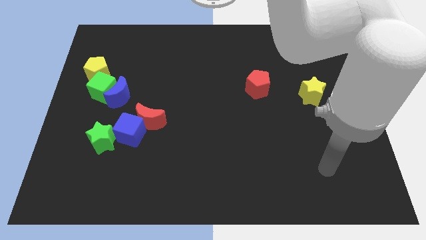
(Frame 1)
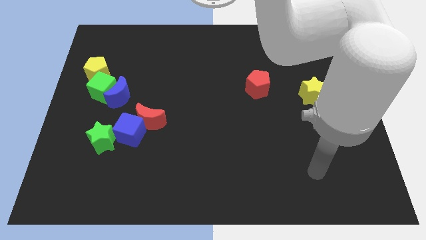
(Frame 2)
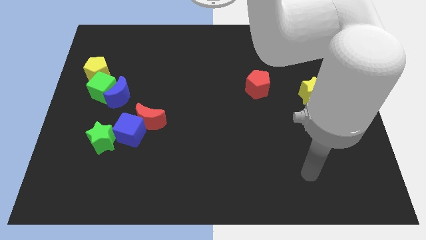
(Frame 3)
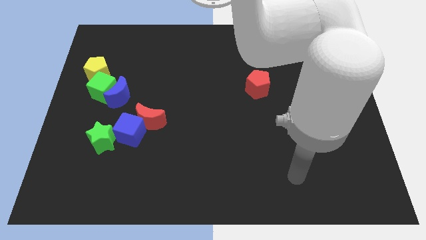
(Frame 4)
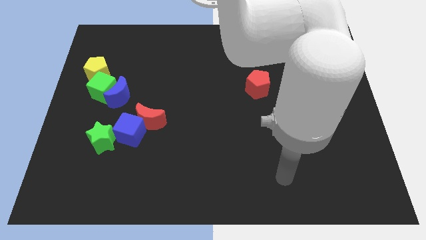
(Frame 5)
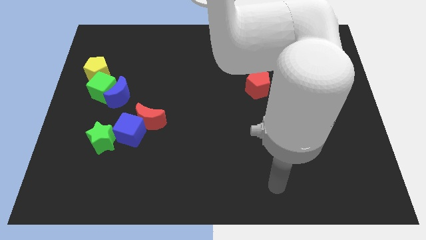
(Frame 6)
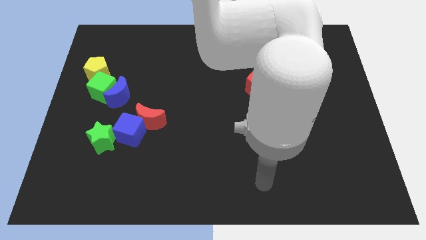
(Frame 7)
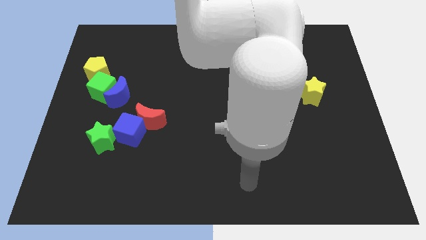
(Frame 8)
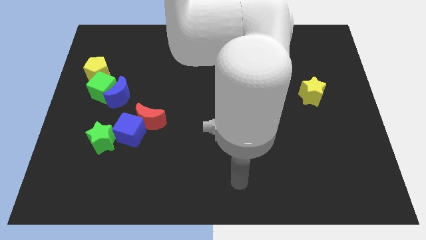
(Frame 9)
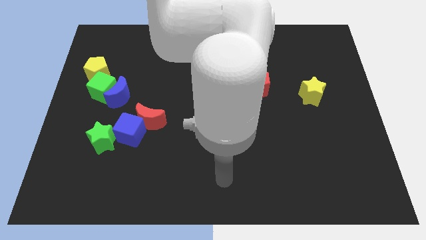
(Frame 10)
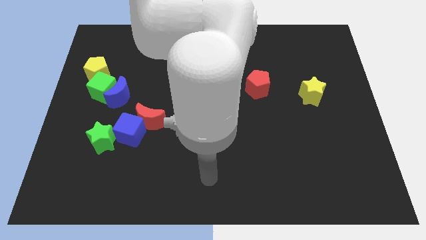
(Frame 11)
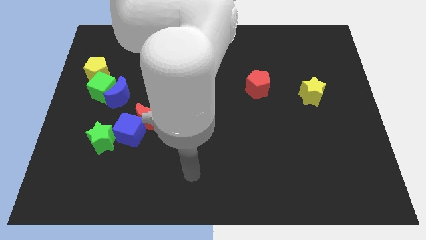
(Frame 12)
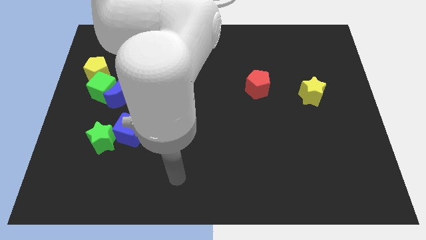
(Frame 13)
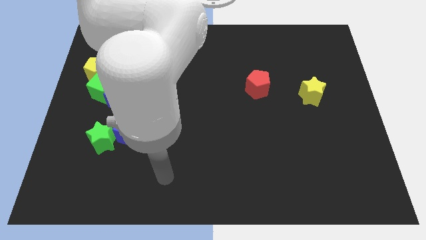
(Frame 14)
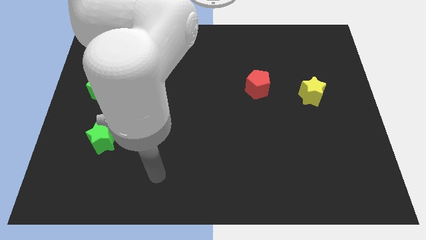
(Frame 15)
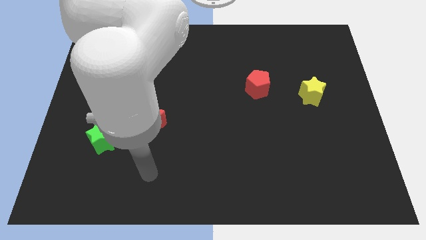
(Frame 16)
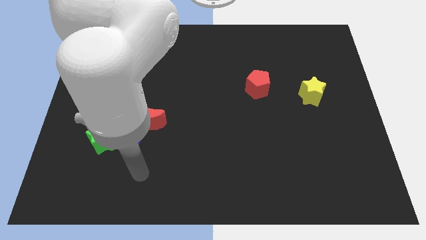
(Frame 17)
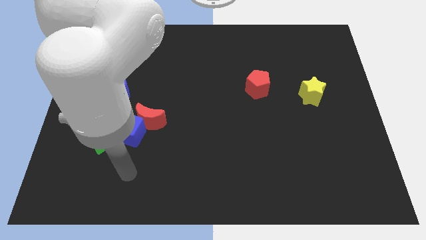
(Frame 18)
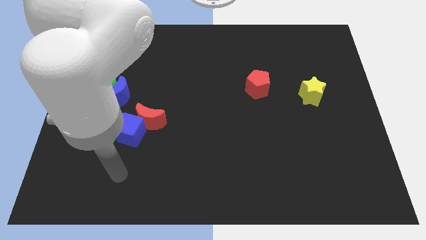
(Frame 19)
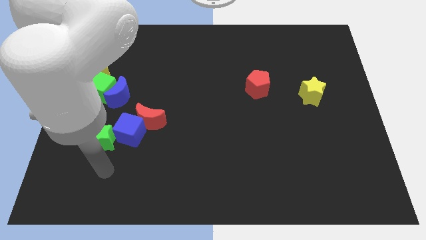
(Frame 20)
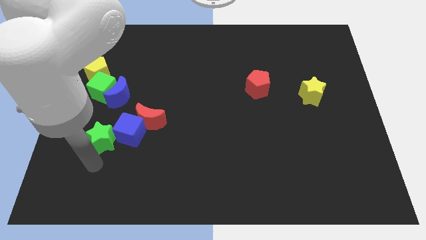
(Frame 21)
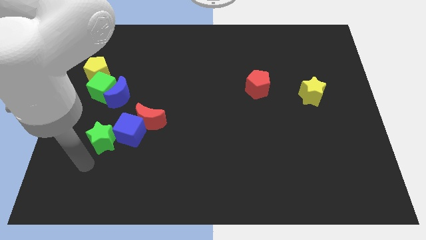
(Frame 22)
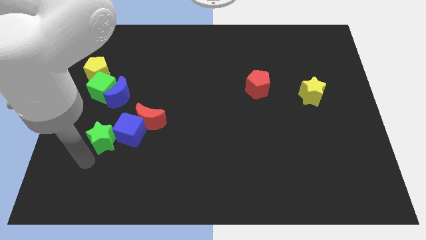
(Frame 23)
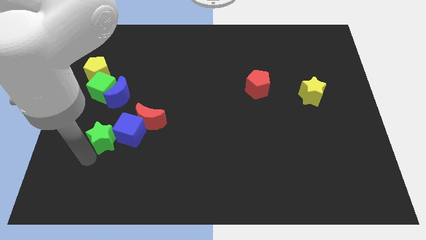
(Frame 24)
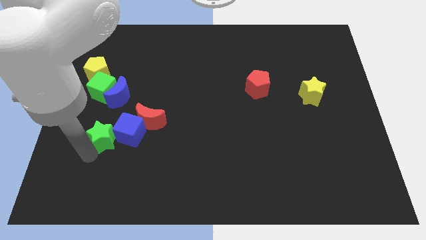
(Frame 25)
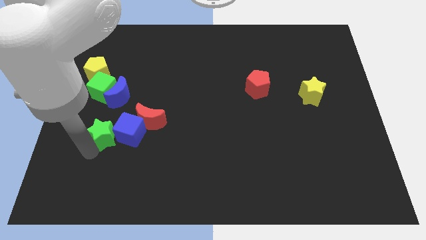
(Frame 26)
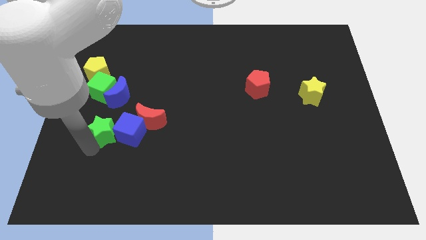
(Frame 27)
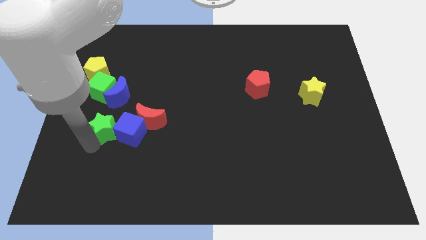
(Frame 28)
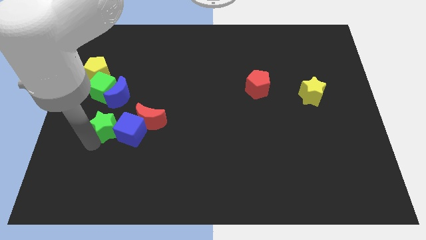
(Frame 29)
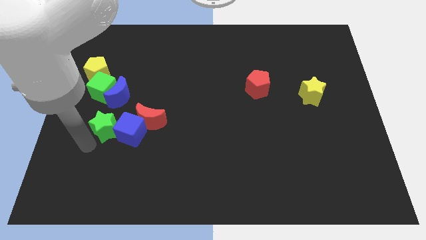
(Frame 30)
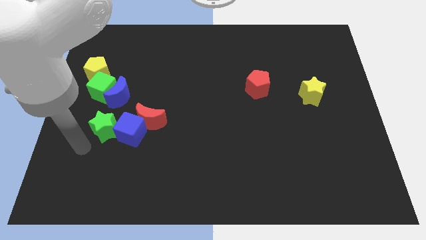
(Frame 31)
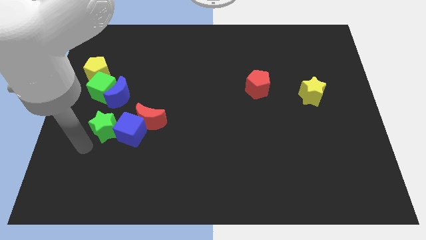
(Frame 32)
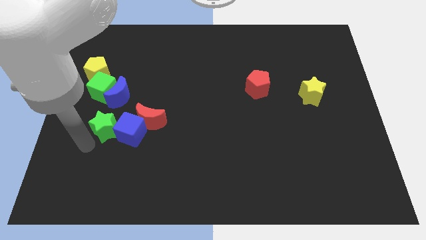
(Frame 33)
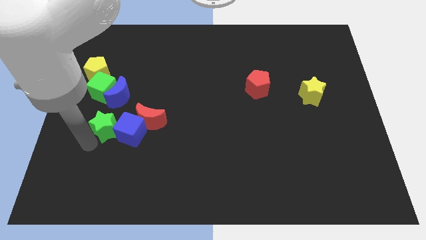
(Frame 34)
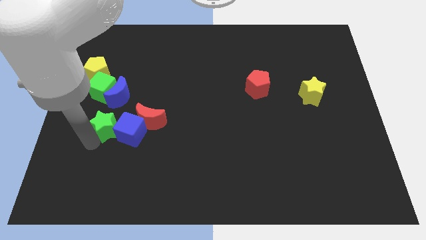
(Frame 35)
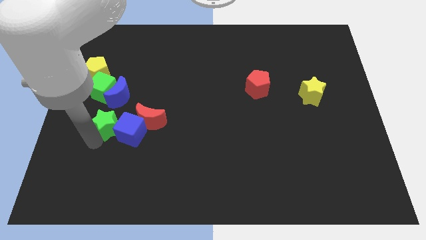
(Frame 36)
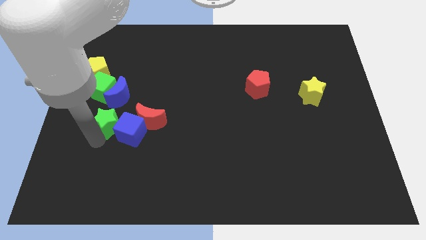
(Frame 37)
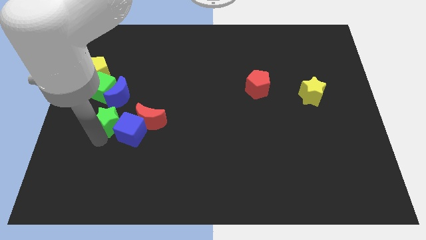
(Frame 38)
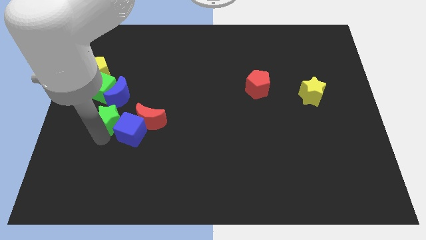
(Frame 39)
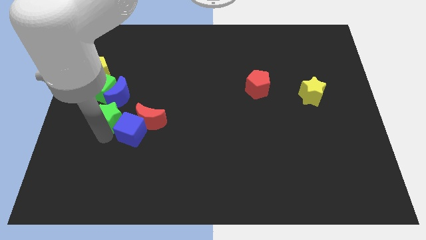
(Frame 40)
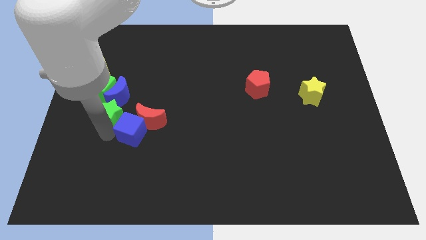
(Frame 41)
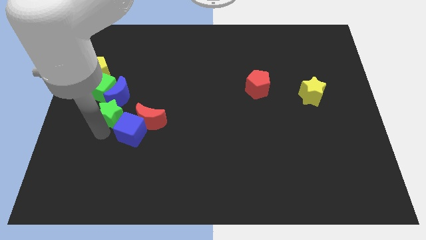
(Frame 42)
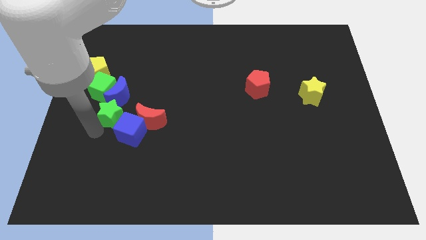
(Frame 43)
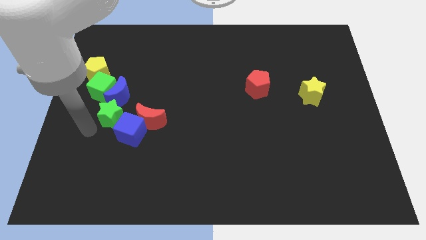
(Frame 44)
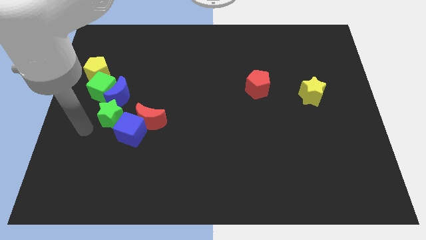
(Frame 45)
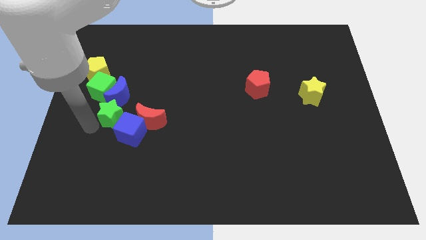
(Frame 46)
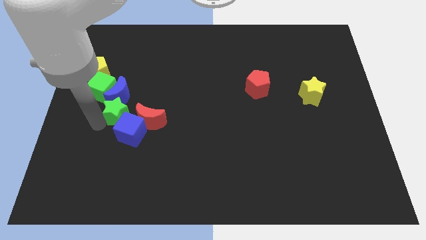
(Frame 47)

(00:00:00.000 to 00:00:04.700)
slightly move the green star upwards

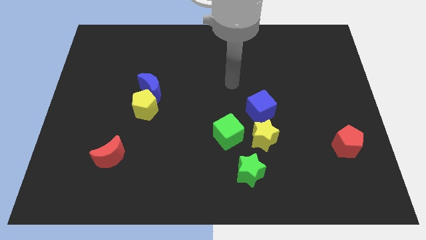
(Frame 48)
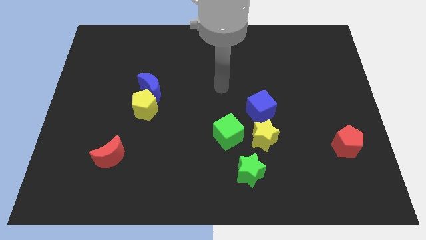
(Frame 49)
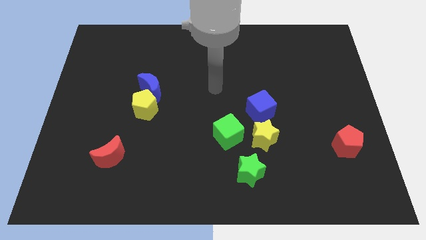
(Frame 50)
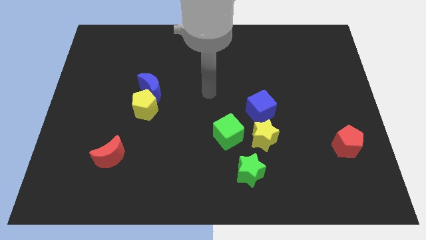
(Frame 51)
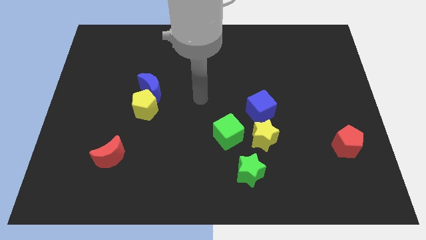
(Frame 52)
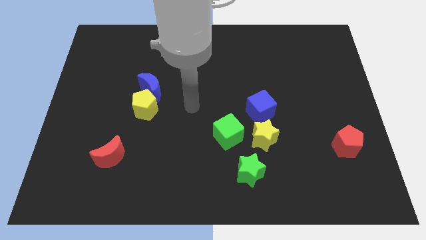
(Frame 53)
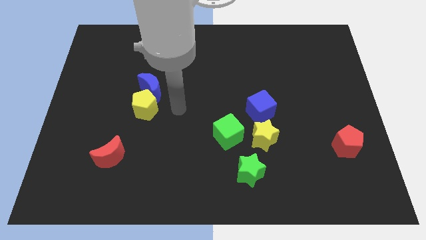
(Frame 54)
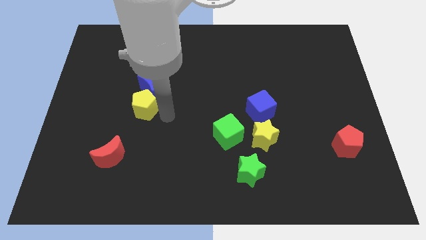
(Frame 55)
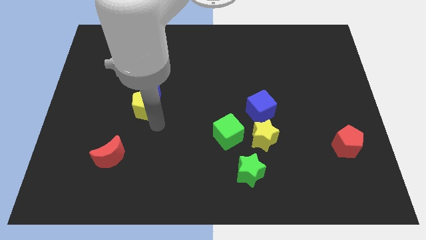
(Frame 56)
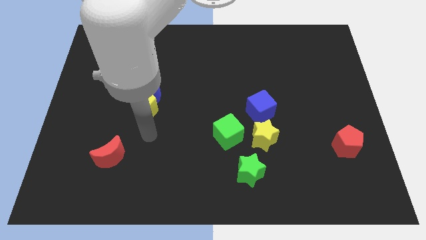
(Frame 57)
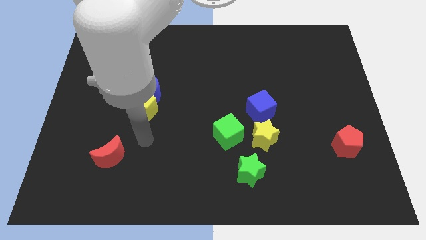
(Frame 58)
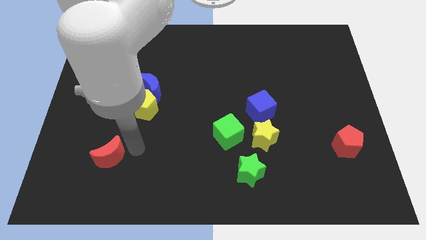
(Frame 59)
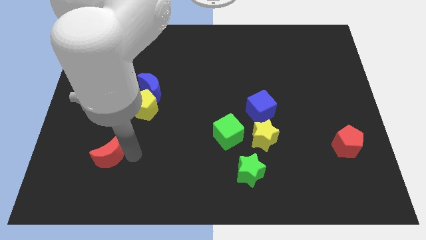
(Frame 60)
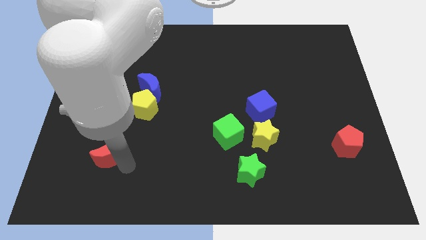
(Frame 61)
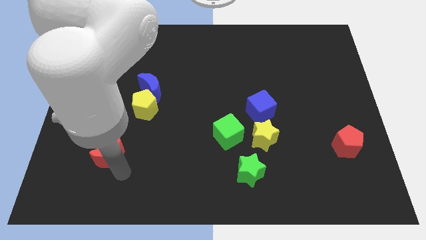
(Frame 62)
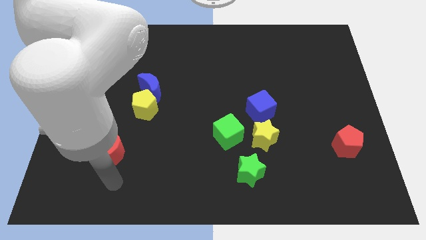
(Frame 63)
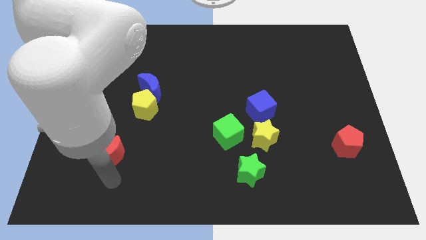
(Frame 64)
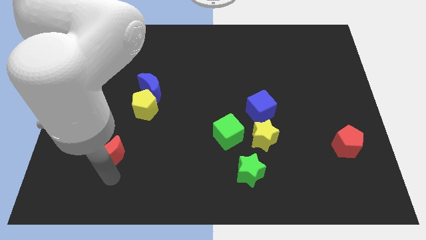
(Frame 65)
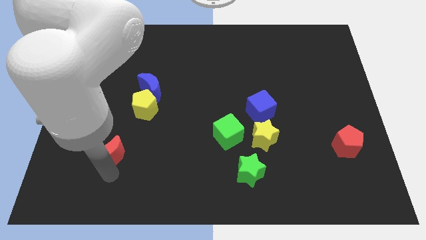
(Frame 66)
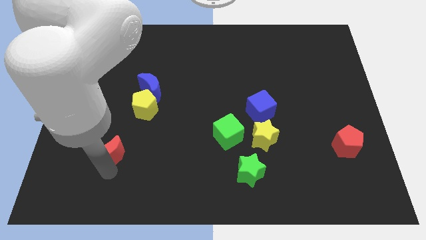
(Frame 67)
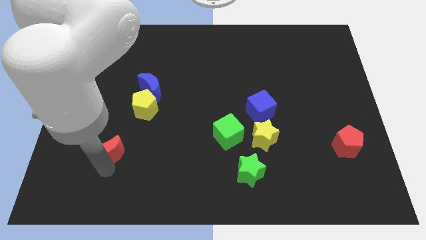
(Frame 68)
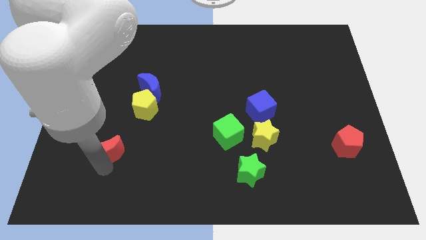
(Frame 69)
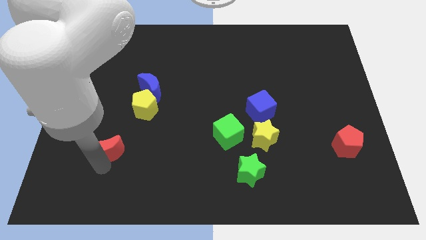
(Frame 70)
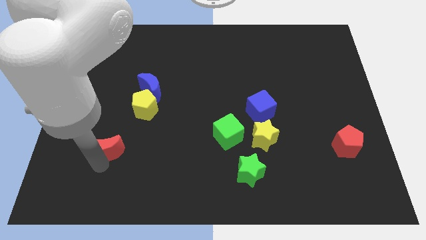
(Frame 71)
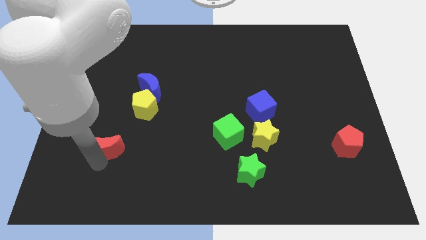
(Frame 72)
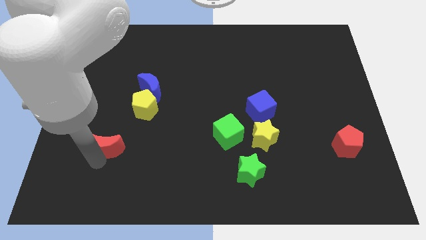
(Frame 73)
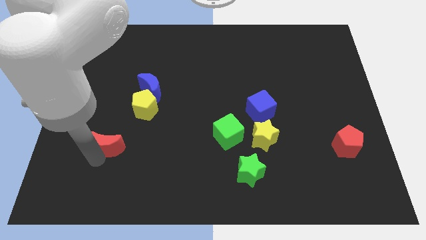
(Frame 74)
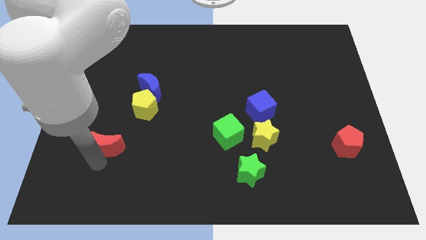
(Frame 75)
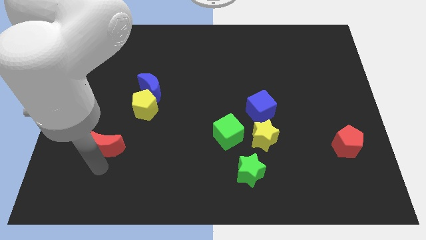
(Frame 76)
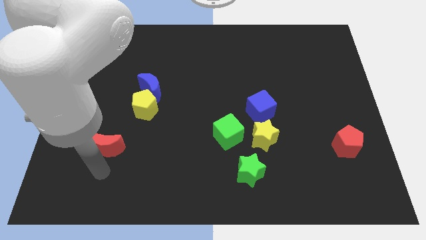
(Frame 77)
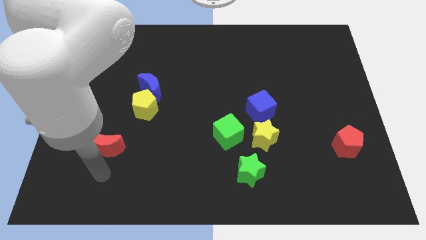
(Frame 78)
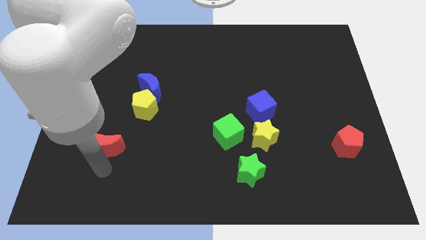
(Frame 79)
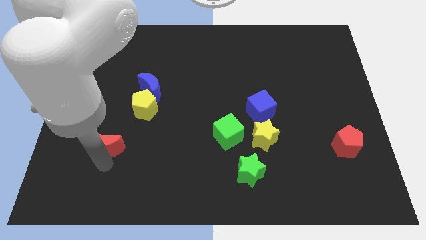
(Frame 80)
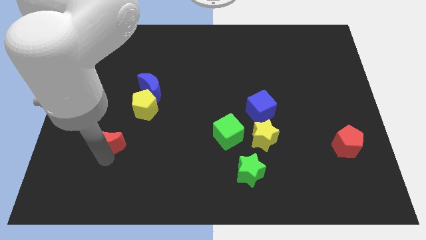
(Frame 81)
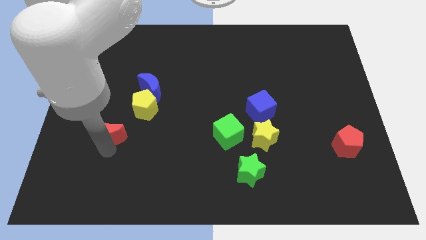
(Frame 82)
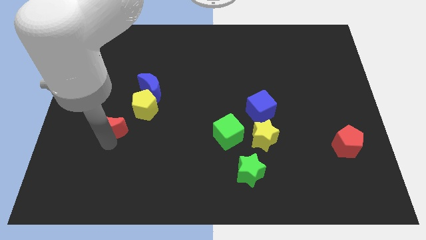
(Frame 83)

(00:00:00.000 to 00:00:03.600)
slide the red moon a little bit upwards
